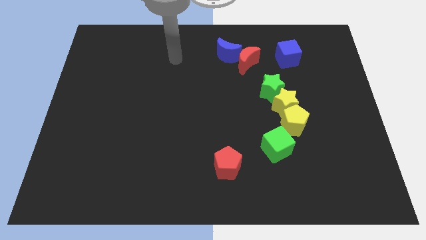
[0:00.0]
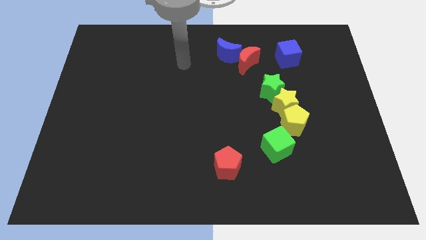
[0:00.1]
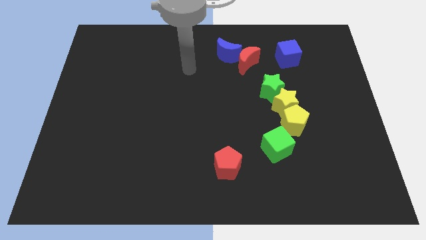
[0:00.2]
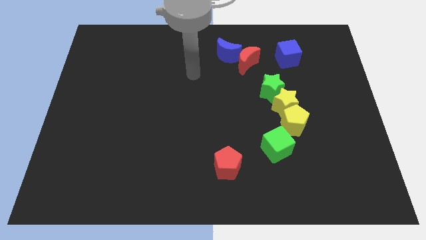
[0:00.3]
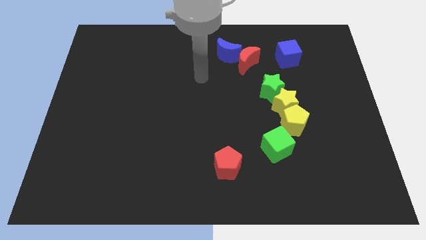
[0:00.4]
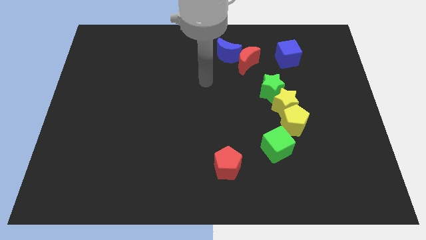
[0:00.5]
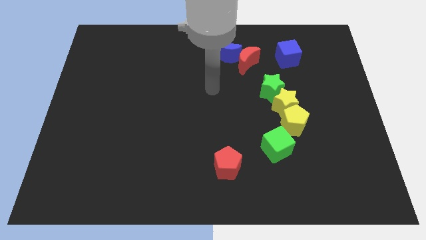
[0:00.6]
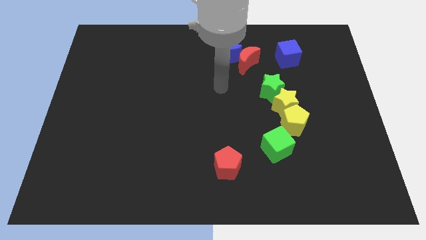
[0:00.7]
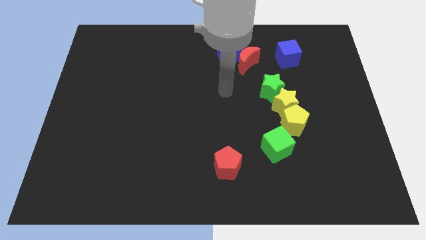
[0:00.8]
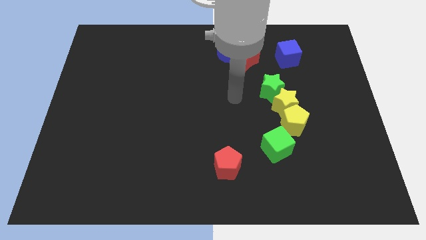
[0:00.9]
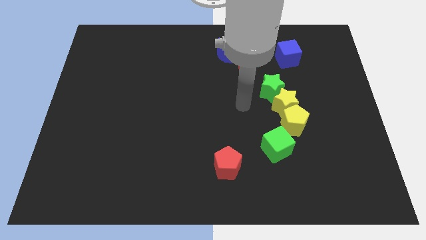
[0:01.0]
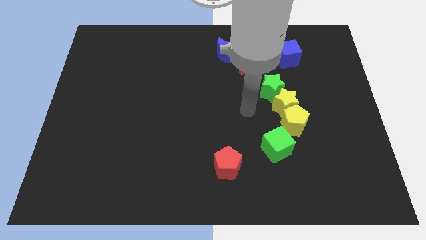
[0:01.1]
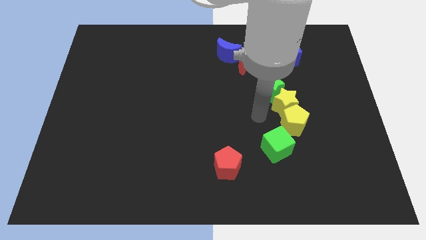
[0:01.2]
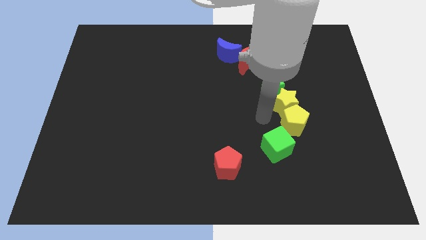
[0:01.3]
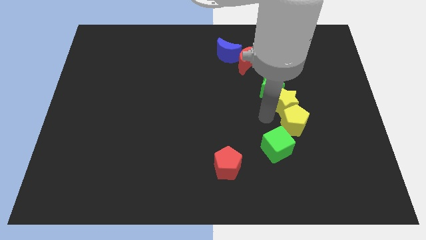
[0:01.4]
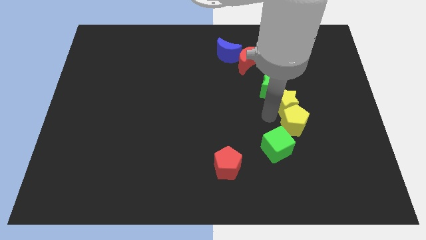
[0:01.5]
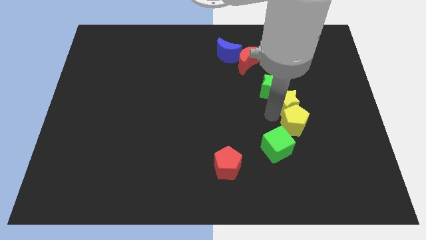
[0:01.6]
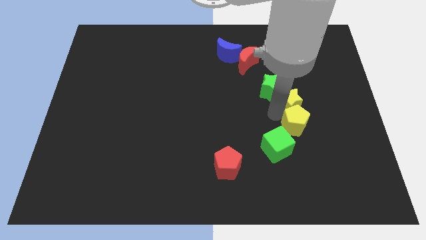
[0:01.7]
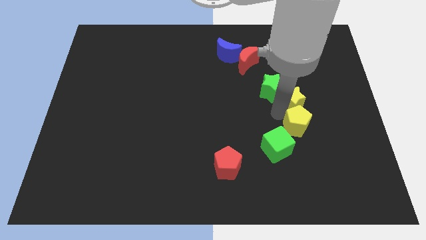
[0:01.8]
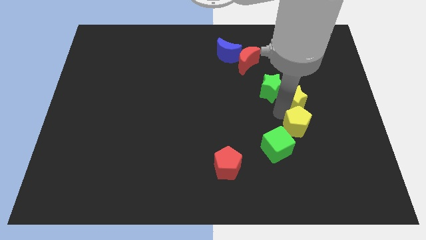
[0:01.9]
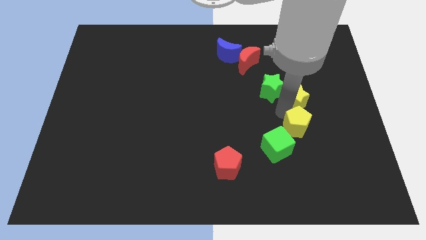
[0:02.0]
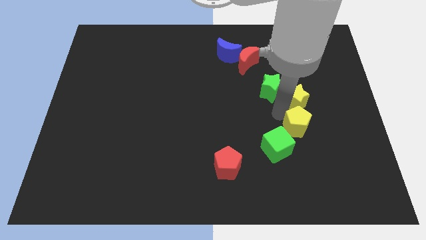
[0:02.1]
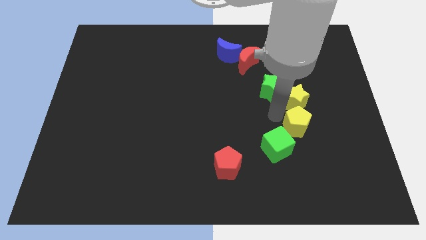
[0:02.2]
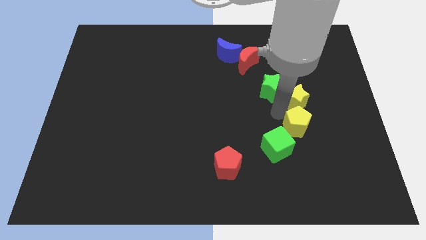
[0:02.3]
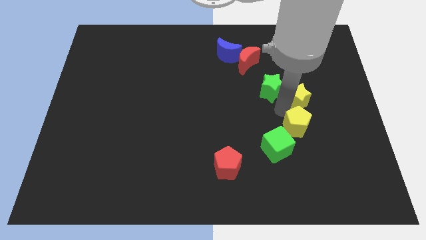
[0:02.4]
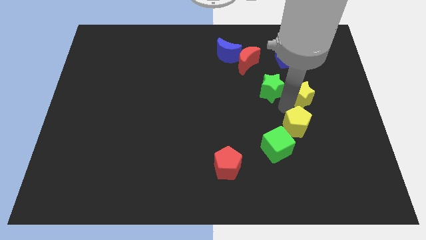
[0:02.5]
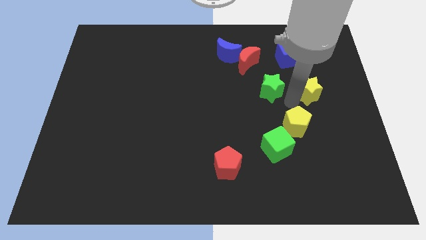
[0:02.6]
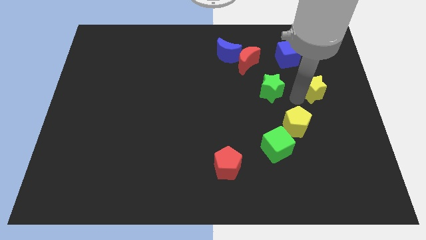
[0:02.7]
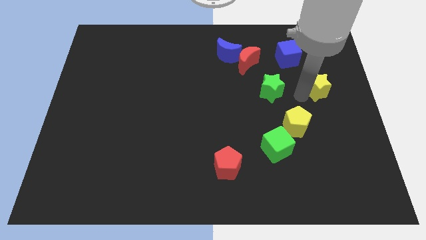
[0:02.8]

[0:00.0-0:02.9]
move the yellow star away from the green star and yellow pentagon

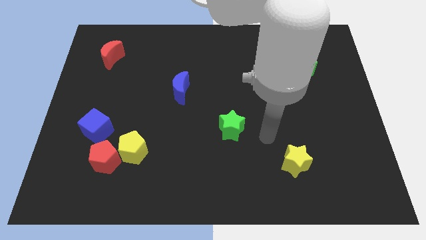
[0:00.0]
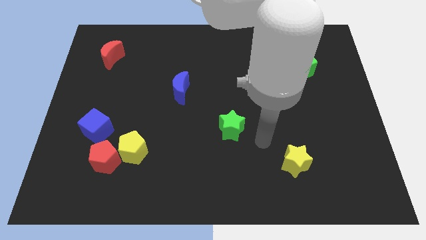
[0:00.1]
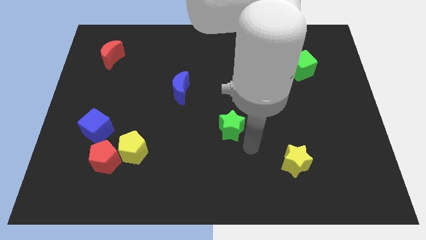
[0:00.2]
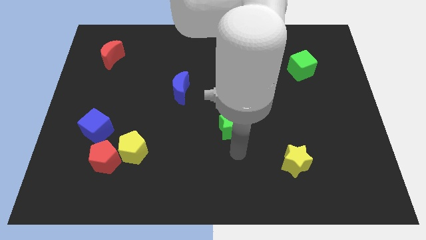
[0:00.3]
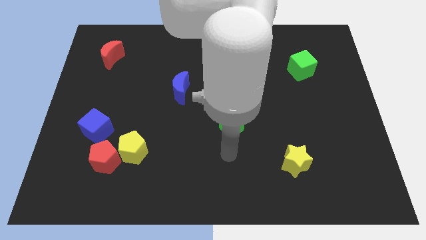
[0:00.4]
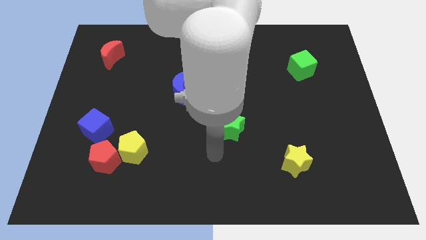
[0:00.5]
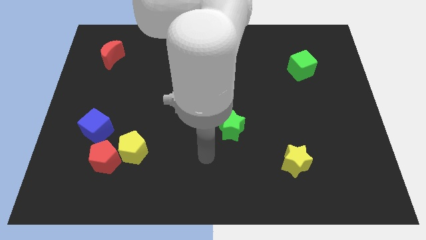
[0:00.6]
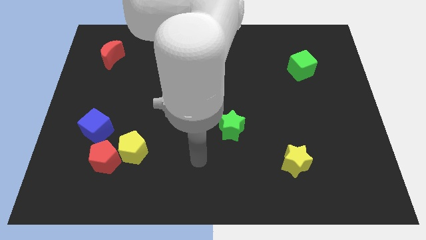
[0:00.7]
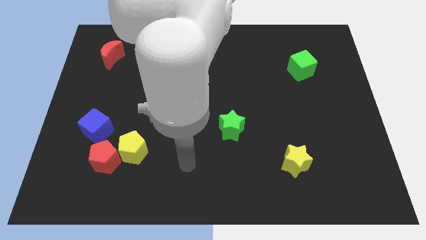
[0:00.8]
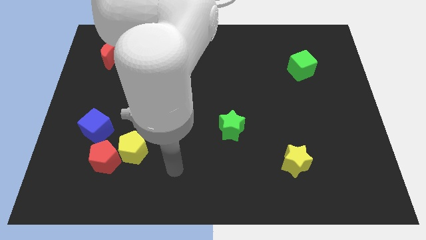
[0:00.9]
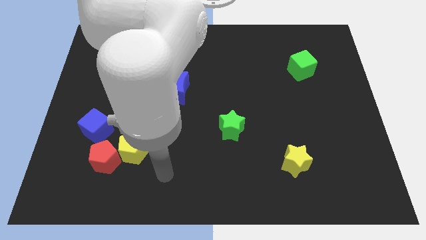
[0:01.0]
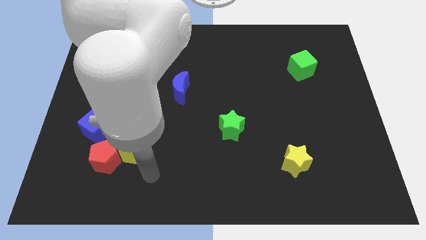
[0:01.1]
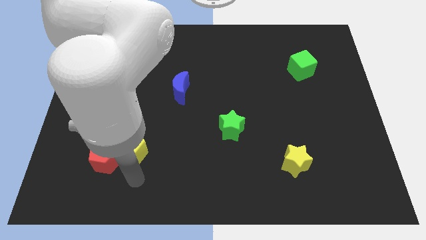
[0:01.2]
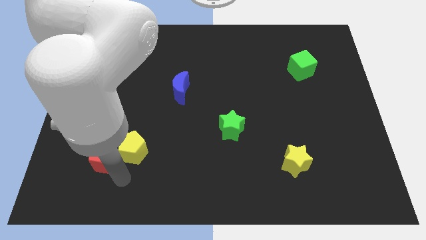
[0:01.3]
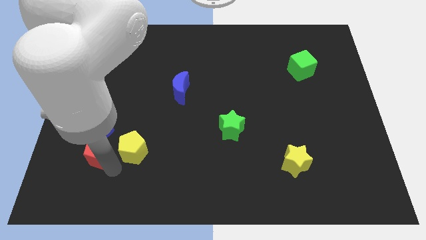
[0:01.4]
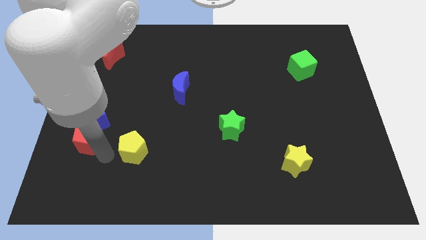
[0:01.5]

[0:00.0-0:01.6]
separate the yellow pentagon from the red pentagon

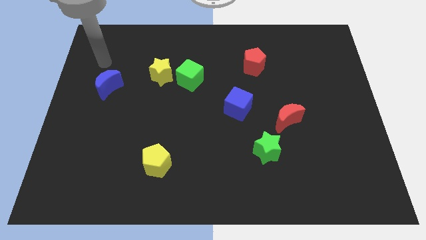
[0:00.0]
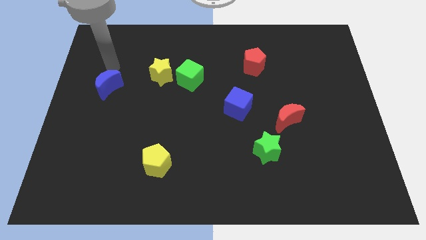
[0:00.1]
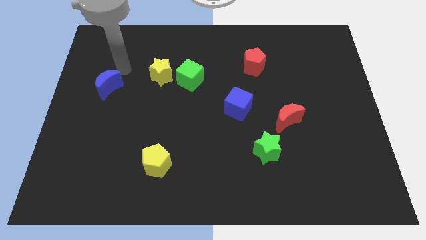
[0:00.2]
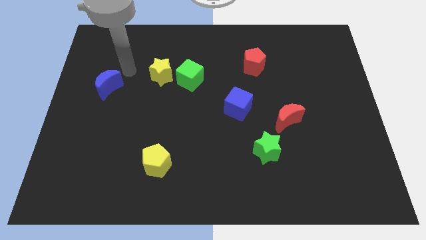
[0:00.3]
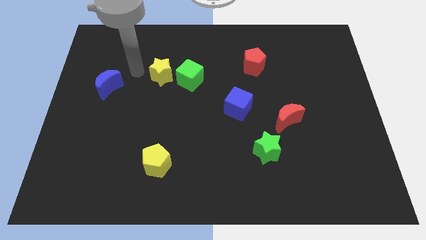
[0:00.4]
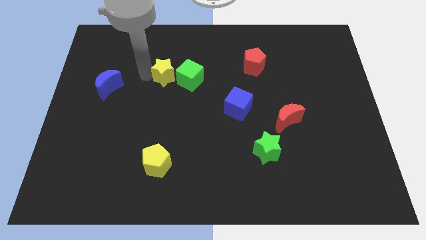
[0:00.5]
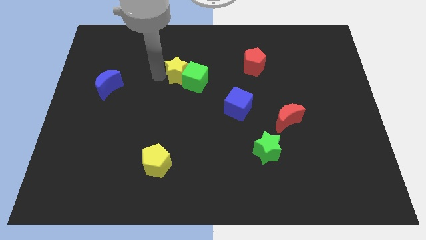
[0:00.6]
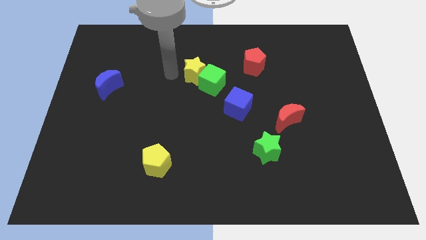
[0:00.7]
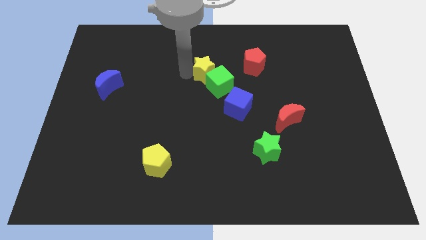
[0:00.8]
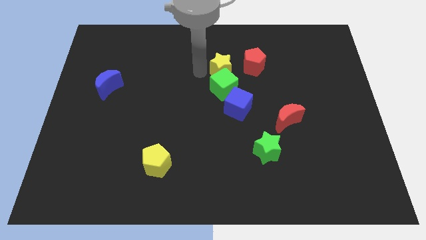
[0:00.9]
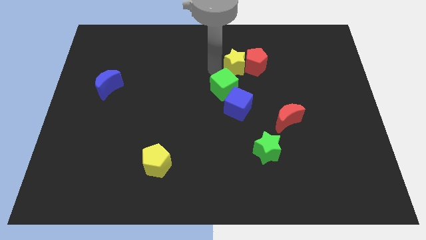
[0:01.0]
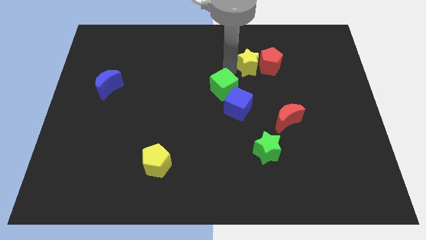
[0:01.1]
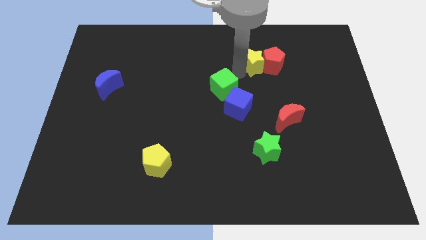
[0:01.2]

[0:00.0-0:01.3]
pull the green cube apart from the yellow star

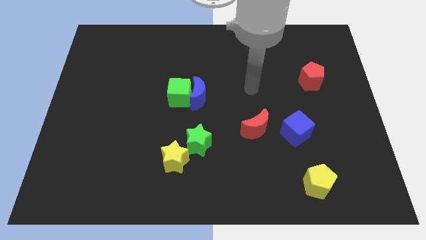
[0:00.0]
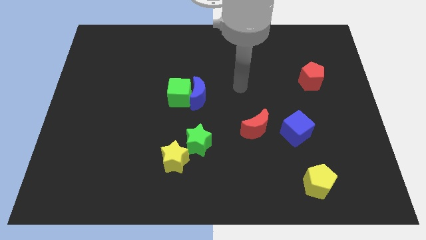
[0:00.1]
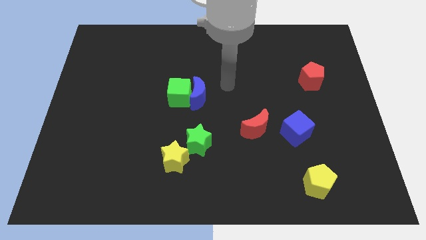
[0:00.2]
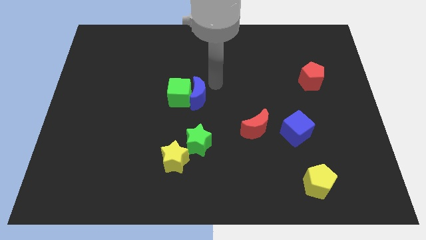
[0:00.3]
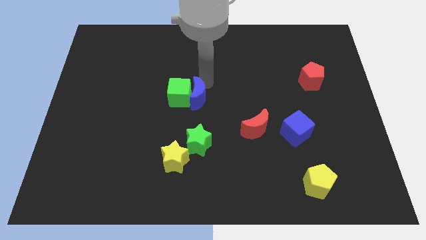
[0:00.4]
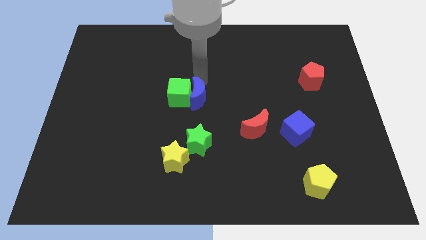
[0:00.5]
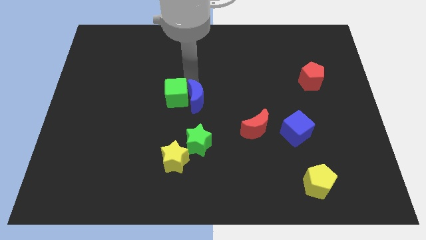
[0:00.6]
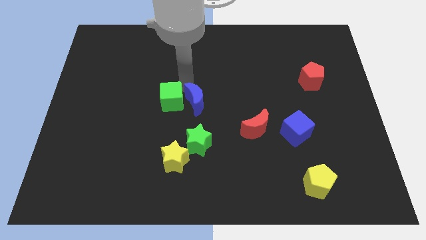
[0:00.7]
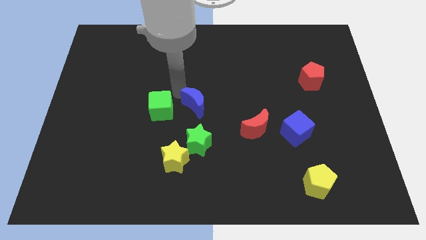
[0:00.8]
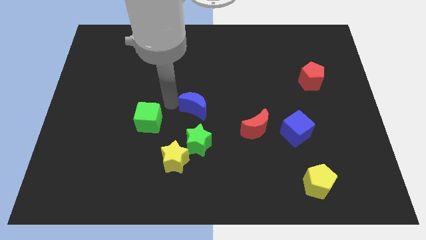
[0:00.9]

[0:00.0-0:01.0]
pull the blue moon apart from the green cube

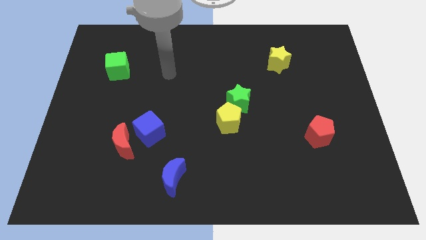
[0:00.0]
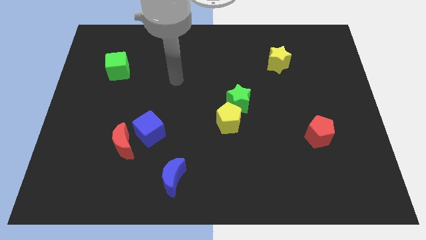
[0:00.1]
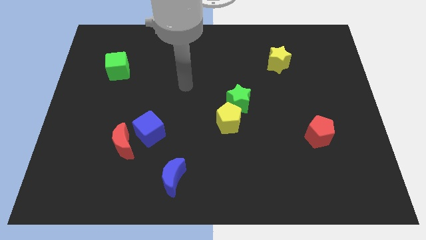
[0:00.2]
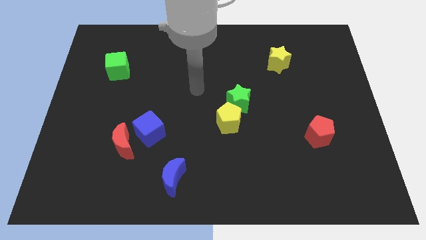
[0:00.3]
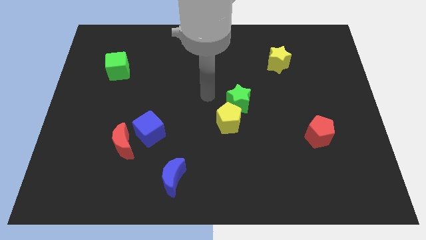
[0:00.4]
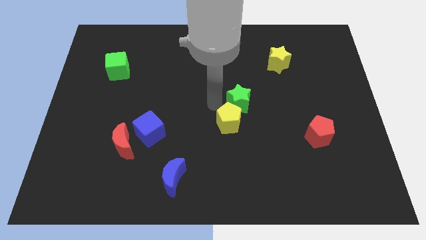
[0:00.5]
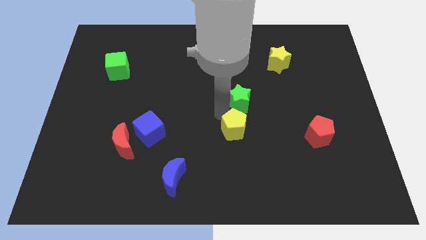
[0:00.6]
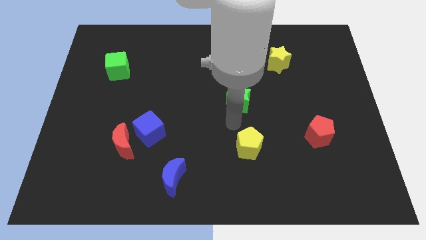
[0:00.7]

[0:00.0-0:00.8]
pull the green star apart from the yellow pentagon

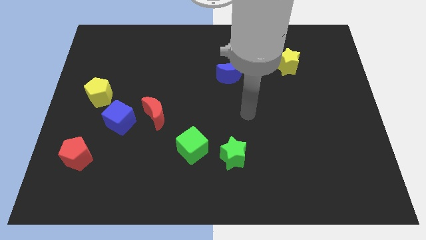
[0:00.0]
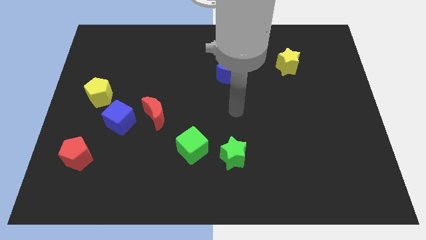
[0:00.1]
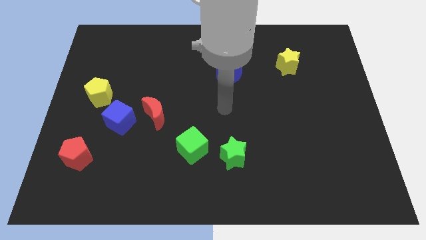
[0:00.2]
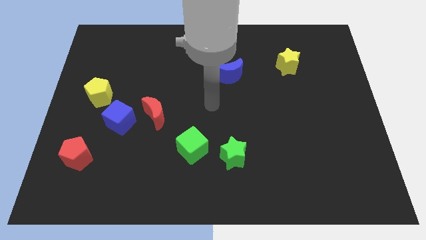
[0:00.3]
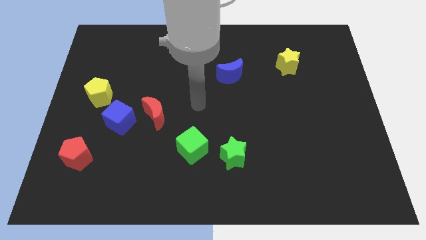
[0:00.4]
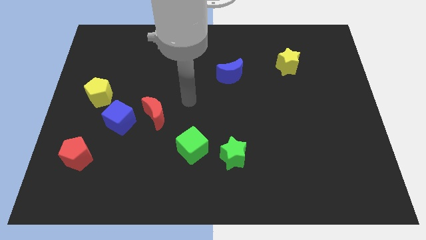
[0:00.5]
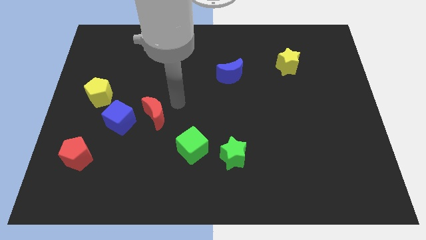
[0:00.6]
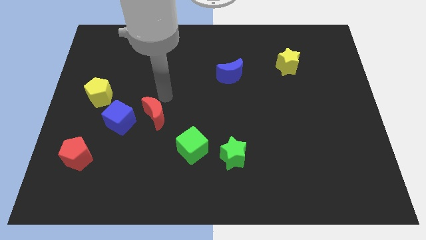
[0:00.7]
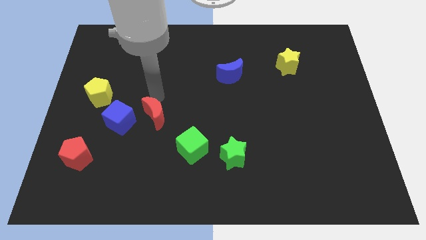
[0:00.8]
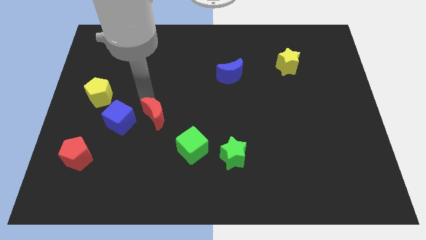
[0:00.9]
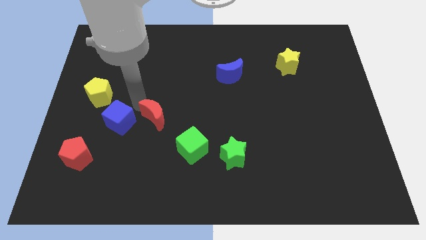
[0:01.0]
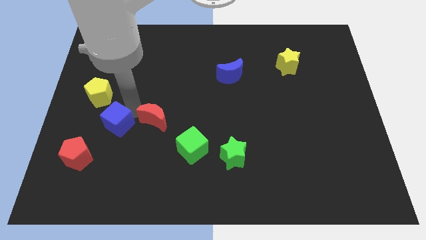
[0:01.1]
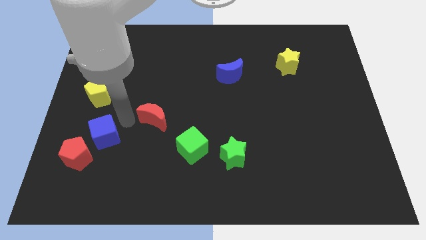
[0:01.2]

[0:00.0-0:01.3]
separate the red moon from the blue cube

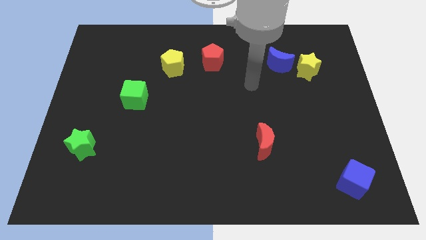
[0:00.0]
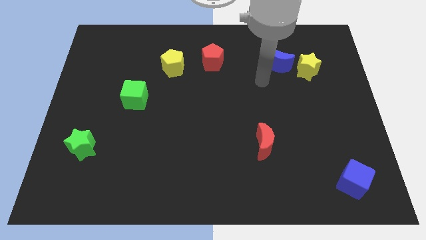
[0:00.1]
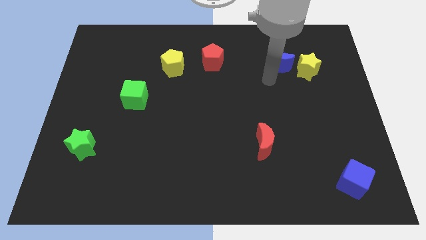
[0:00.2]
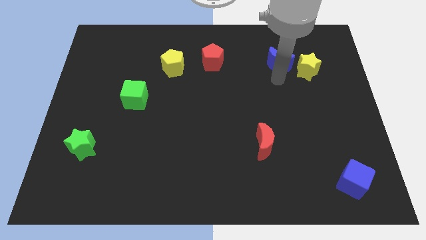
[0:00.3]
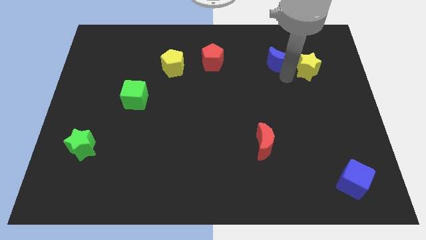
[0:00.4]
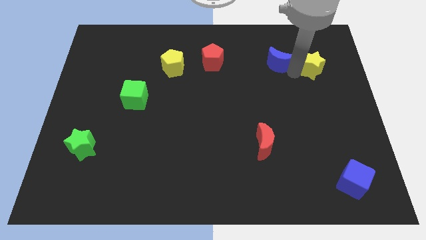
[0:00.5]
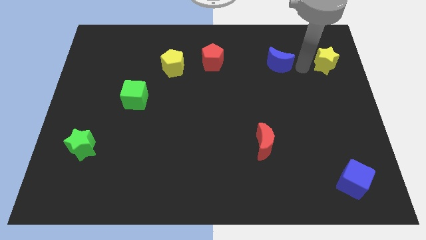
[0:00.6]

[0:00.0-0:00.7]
pull the blue moon apart from the yellow star
